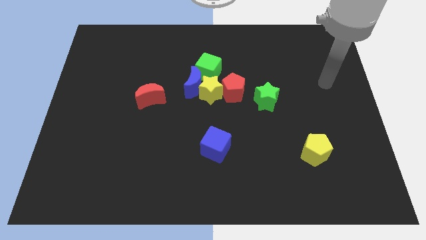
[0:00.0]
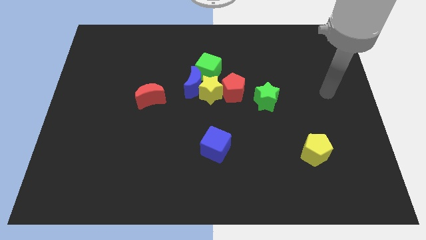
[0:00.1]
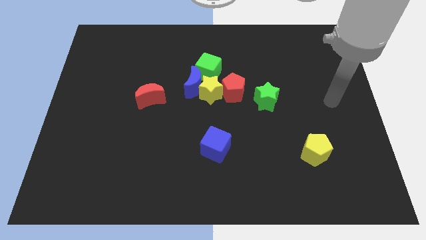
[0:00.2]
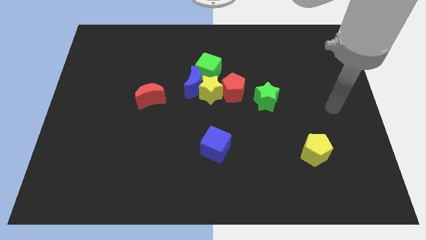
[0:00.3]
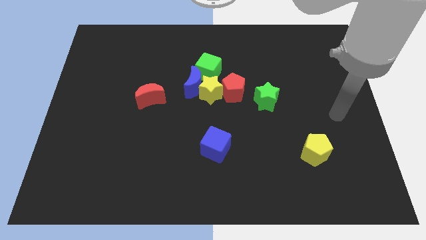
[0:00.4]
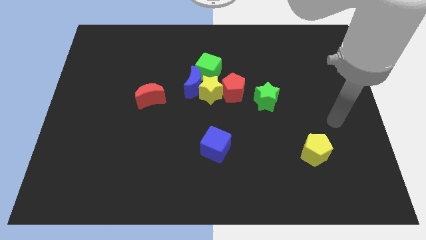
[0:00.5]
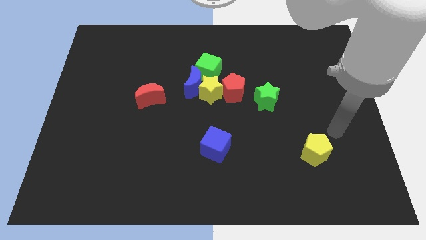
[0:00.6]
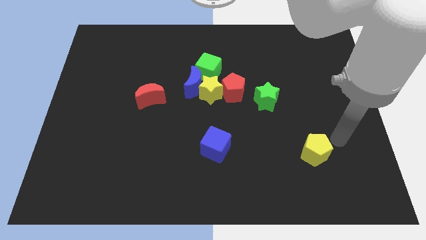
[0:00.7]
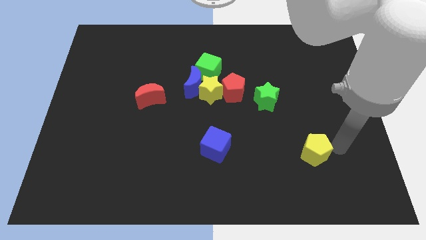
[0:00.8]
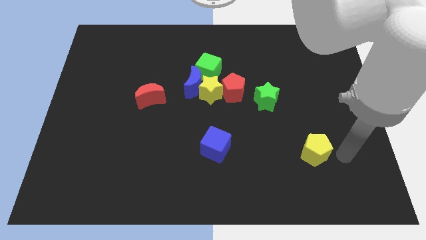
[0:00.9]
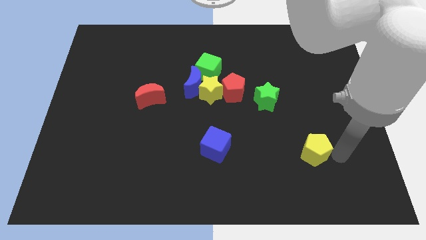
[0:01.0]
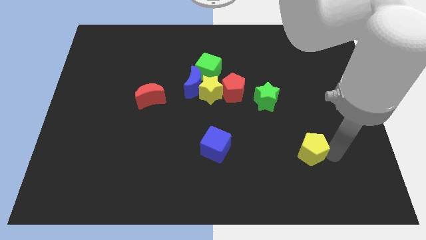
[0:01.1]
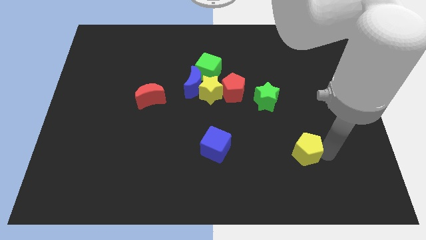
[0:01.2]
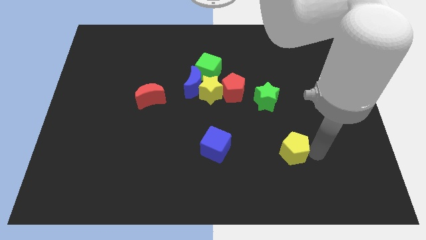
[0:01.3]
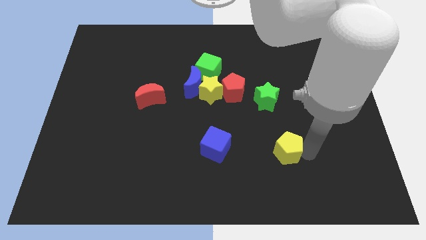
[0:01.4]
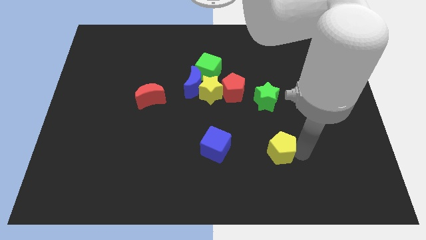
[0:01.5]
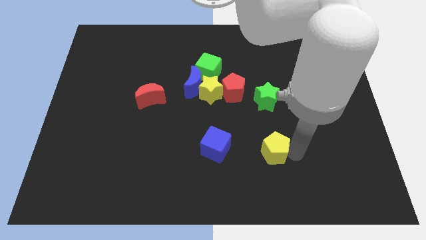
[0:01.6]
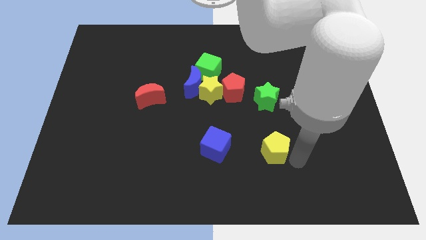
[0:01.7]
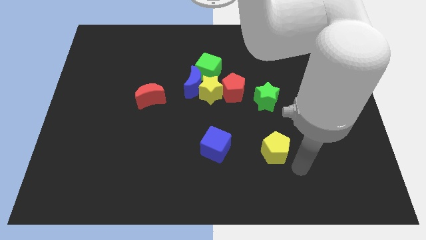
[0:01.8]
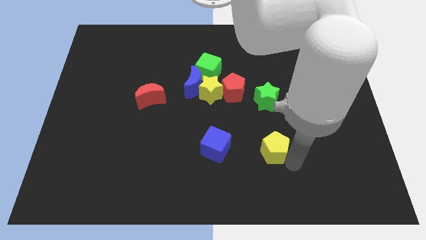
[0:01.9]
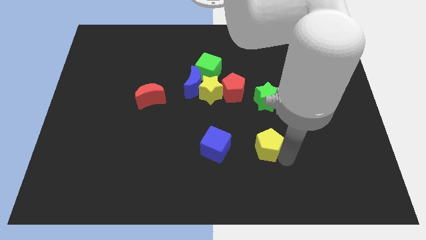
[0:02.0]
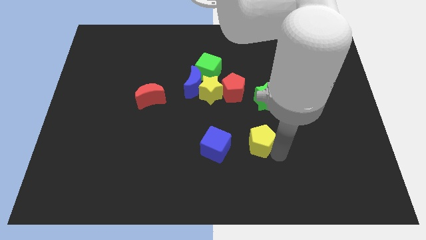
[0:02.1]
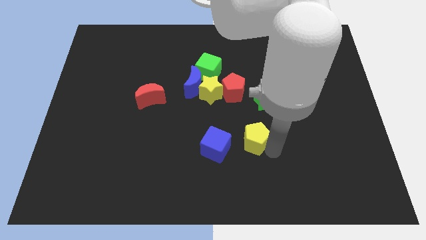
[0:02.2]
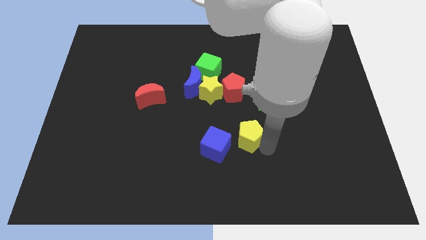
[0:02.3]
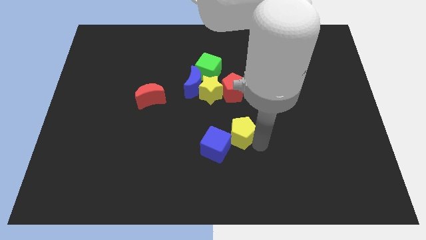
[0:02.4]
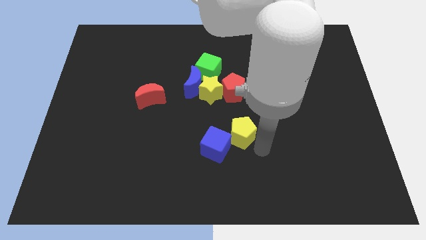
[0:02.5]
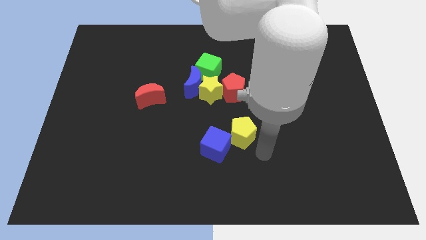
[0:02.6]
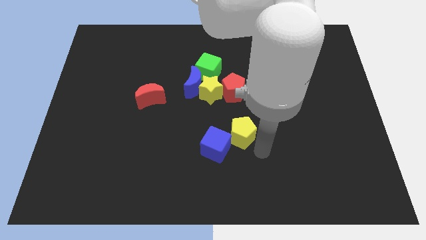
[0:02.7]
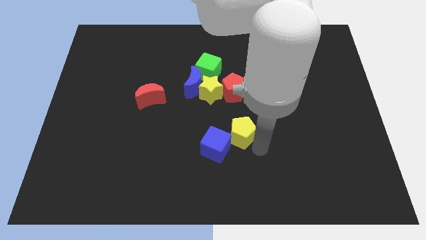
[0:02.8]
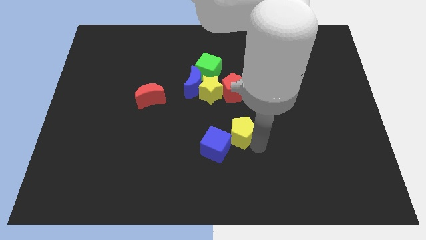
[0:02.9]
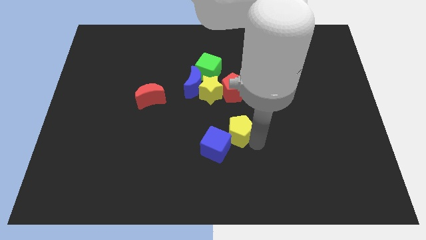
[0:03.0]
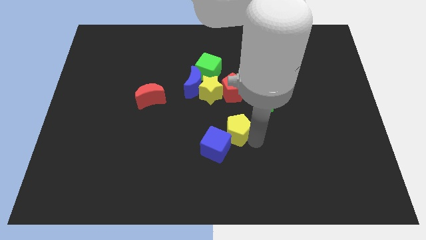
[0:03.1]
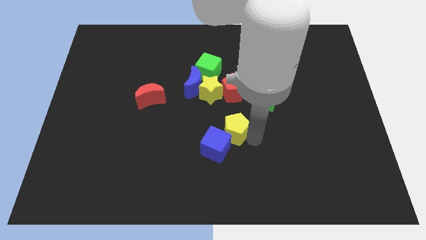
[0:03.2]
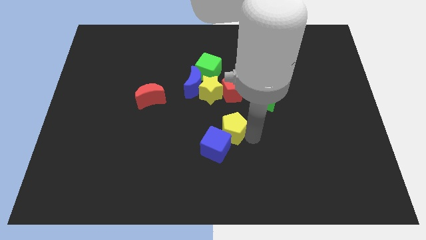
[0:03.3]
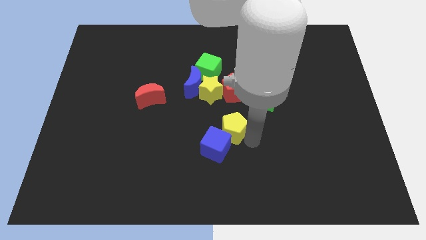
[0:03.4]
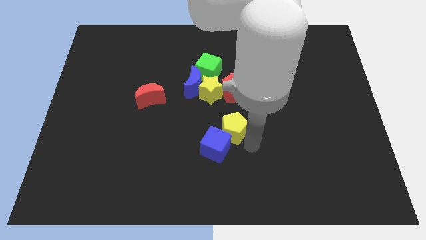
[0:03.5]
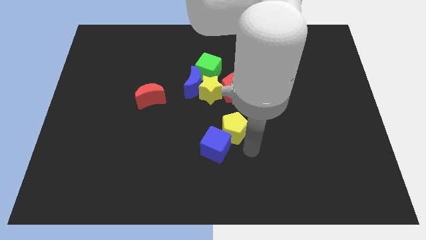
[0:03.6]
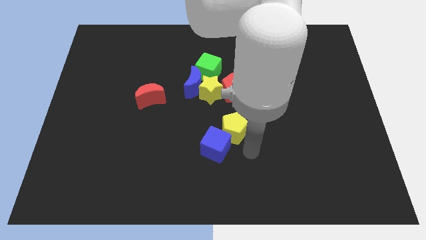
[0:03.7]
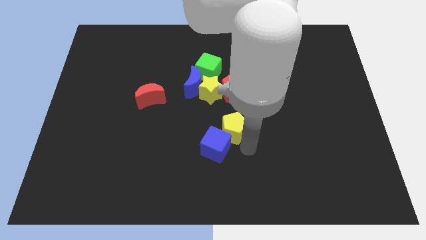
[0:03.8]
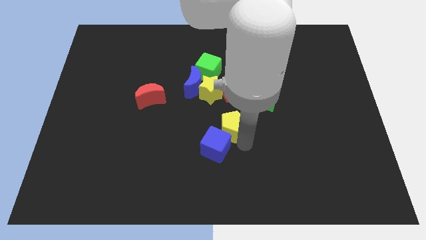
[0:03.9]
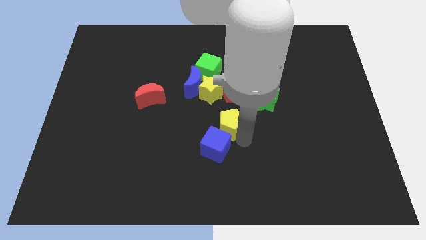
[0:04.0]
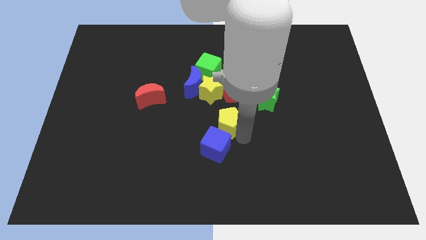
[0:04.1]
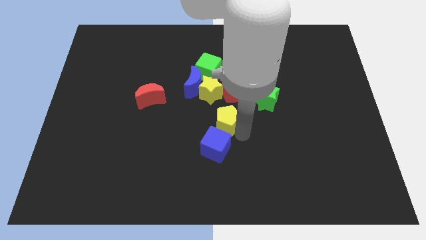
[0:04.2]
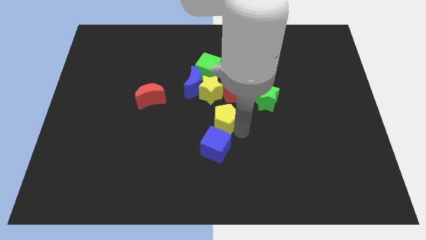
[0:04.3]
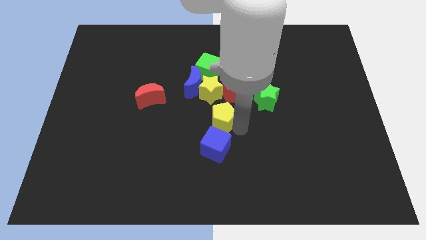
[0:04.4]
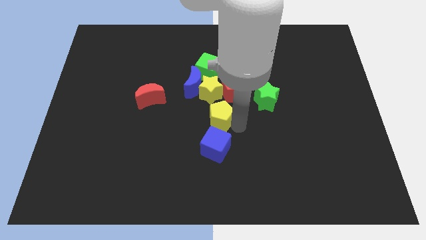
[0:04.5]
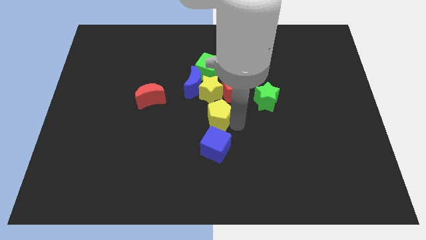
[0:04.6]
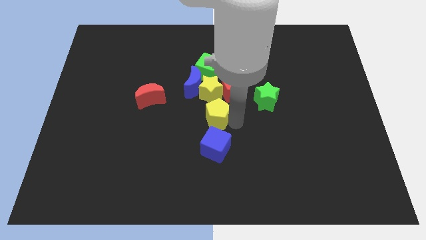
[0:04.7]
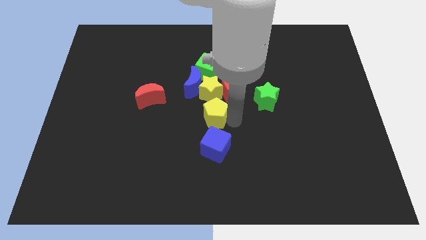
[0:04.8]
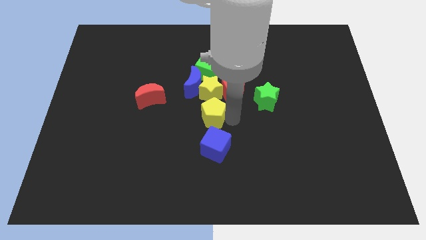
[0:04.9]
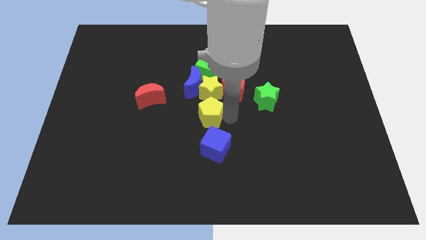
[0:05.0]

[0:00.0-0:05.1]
put the yellow pentagon to the bottom left of the yellow star

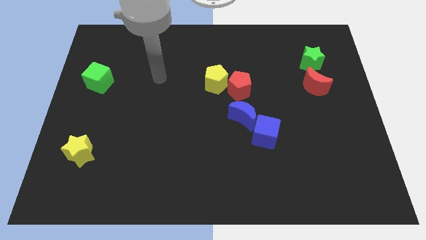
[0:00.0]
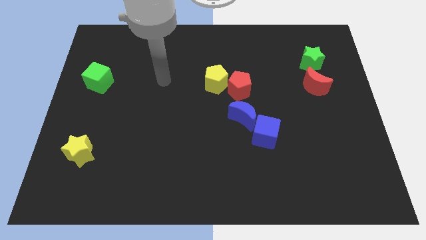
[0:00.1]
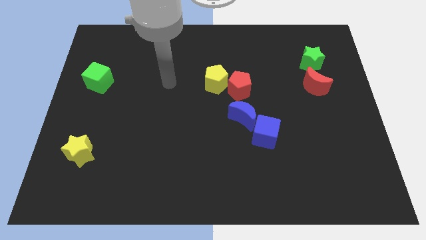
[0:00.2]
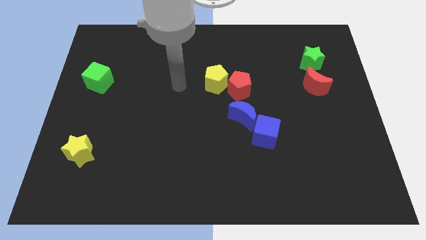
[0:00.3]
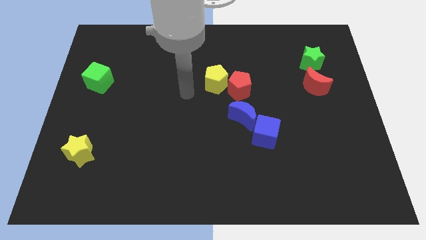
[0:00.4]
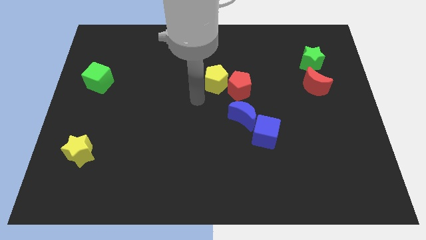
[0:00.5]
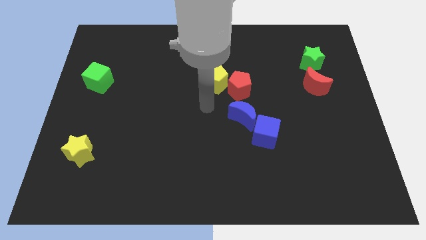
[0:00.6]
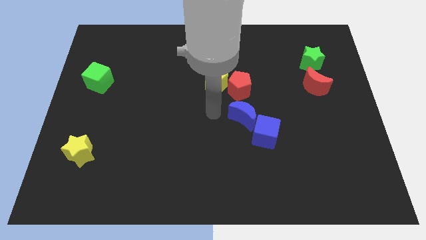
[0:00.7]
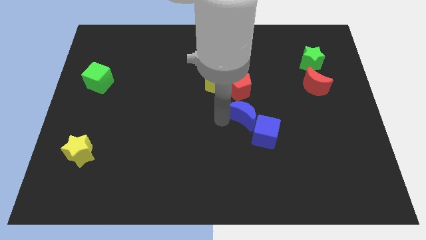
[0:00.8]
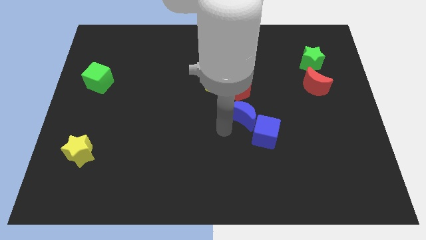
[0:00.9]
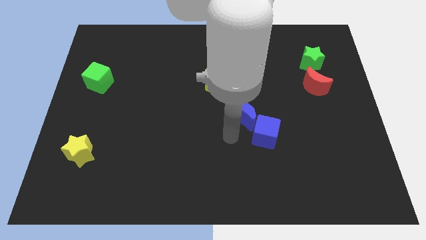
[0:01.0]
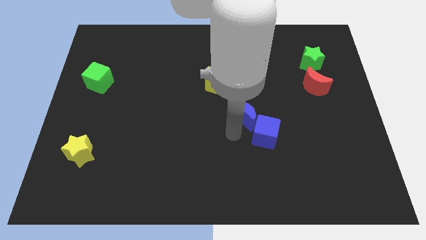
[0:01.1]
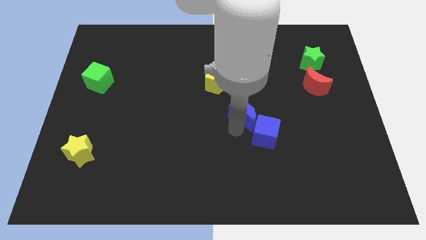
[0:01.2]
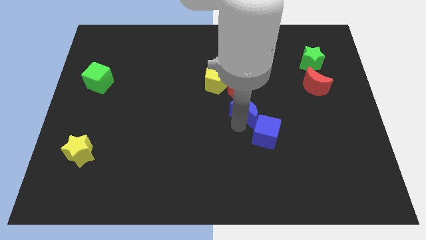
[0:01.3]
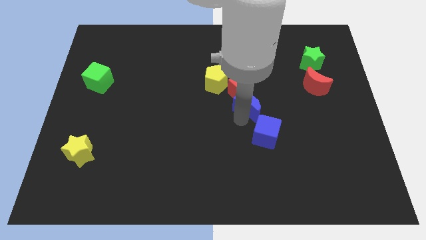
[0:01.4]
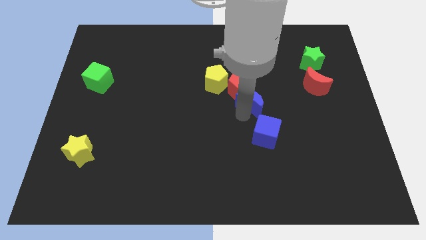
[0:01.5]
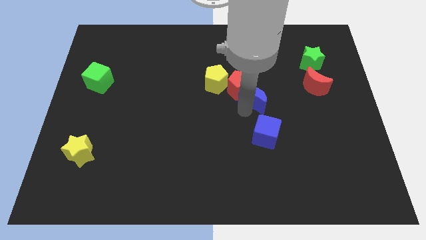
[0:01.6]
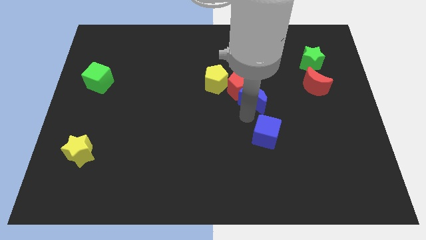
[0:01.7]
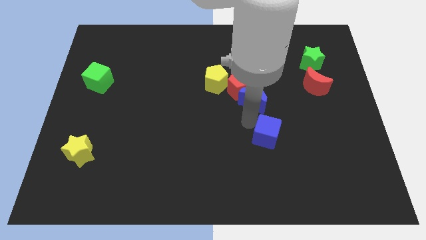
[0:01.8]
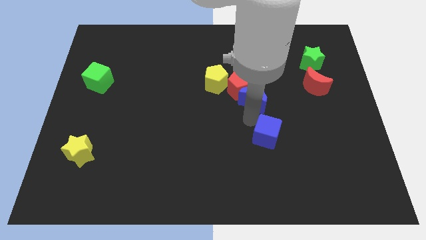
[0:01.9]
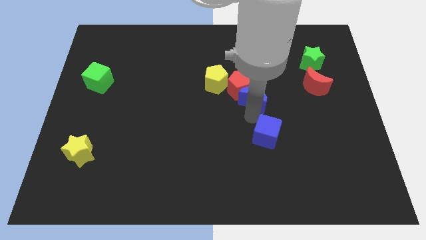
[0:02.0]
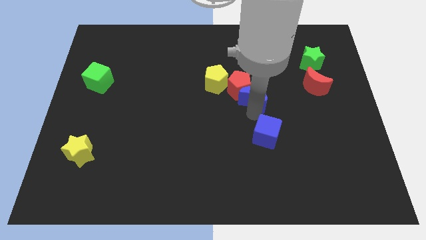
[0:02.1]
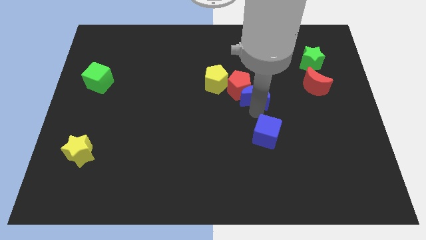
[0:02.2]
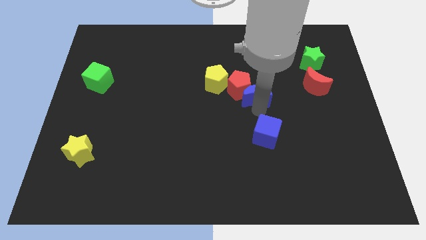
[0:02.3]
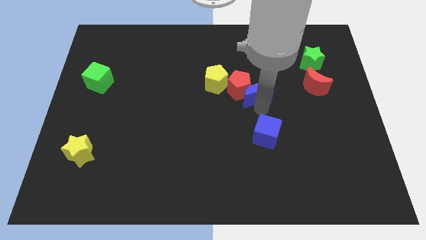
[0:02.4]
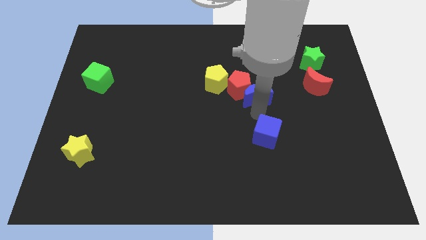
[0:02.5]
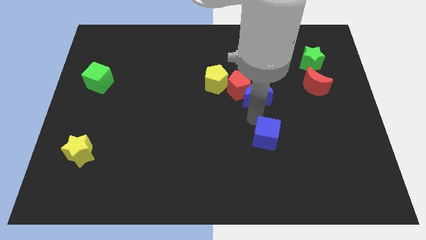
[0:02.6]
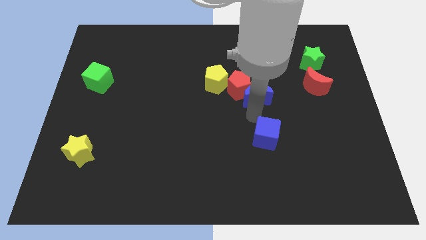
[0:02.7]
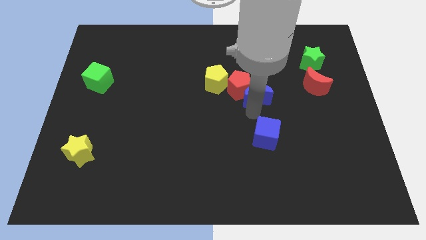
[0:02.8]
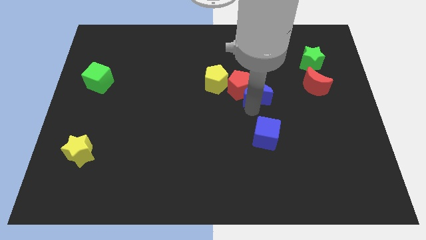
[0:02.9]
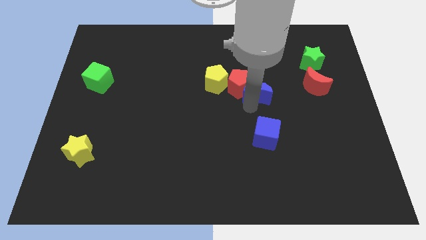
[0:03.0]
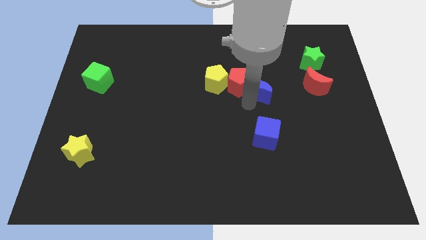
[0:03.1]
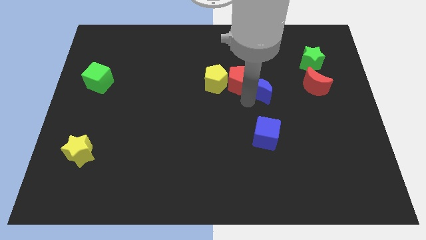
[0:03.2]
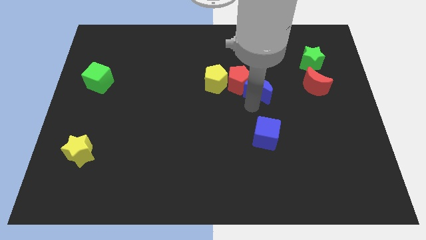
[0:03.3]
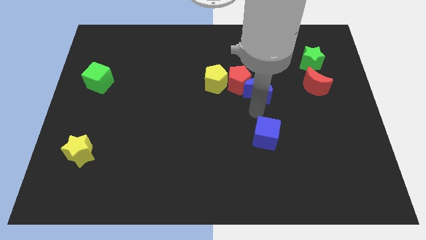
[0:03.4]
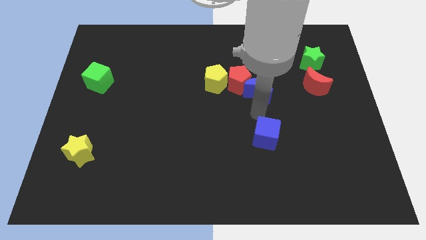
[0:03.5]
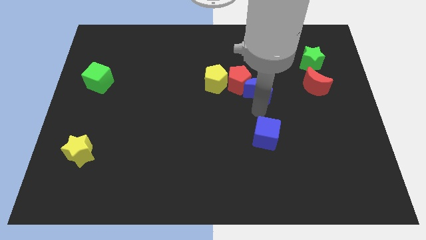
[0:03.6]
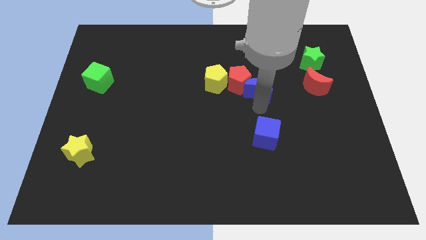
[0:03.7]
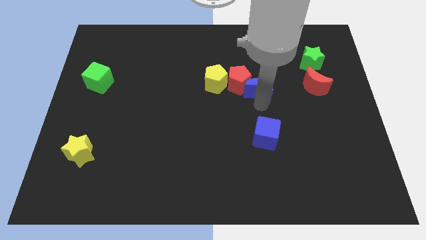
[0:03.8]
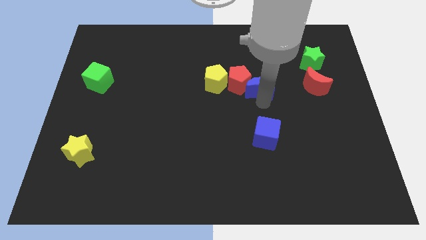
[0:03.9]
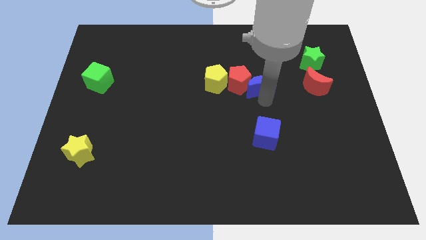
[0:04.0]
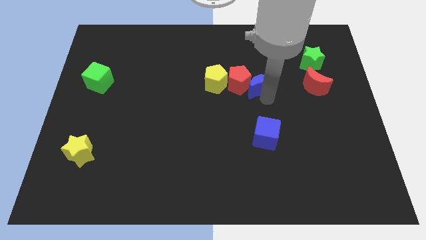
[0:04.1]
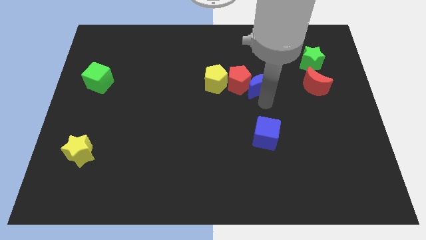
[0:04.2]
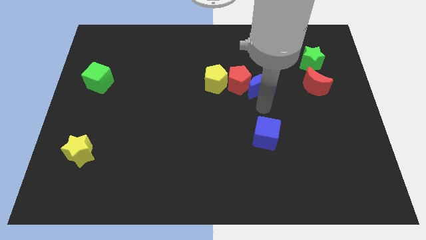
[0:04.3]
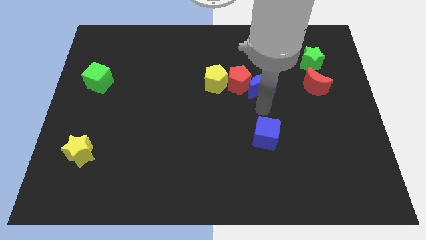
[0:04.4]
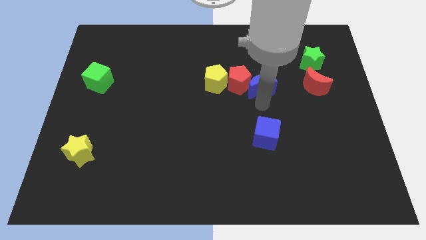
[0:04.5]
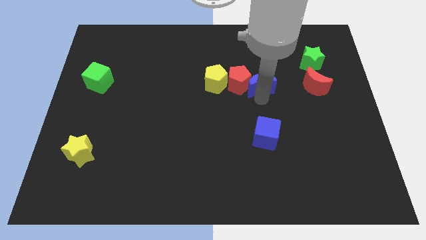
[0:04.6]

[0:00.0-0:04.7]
push the blue moon to the top right side of the red pentagon
